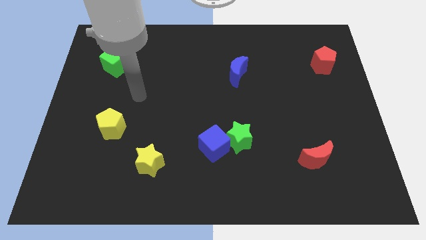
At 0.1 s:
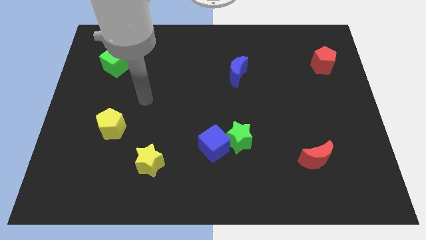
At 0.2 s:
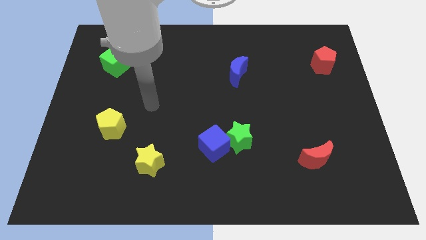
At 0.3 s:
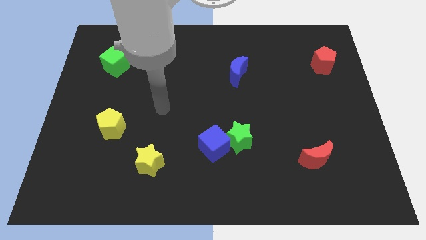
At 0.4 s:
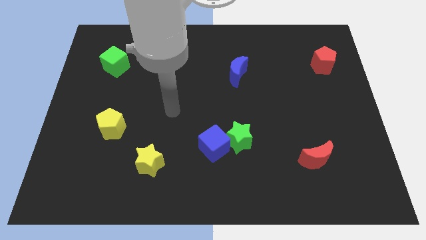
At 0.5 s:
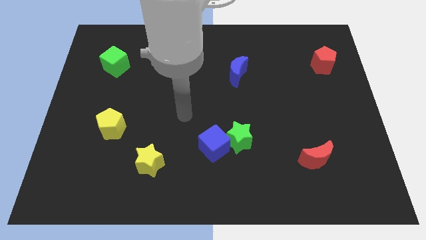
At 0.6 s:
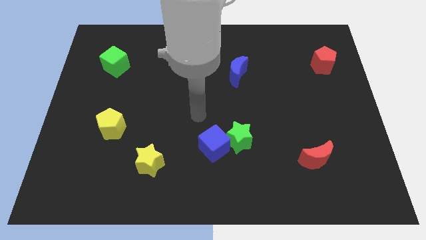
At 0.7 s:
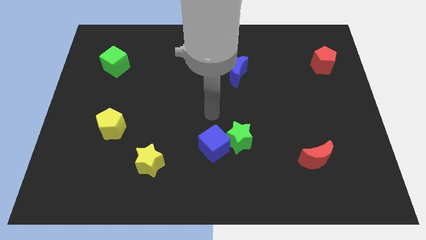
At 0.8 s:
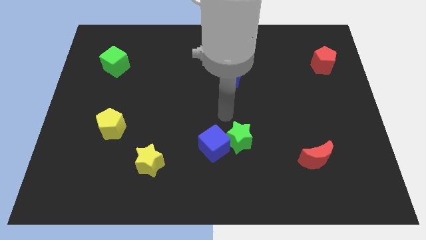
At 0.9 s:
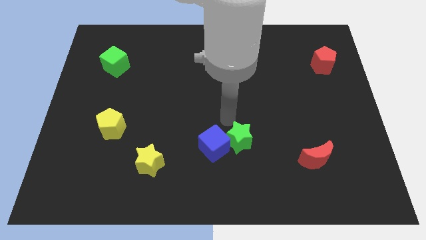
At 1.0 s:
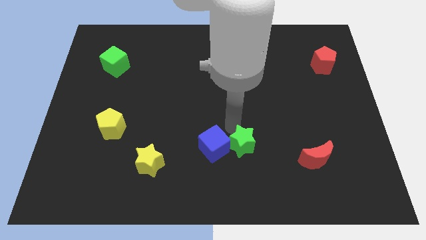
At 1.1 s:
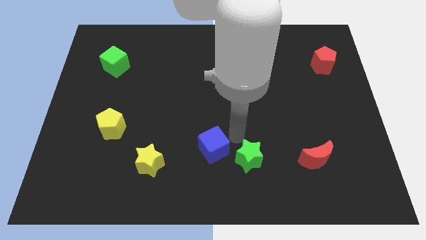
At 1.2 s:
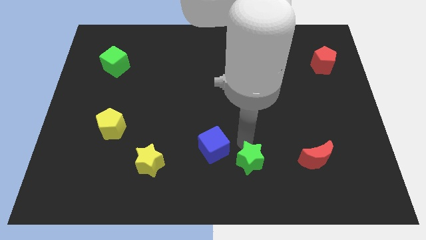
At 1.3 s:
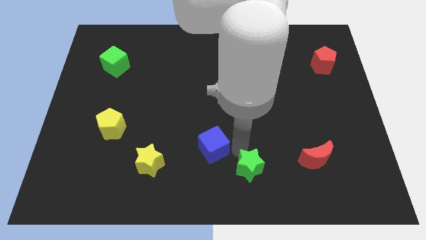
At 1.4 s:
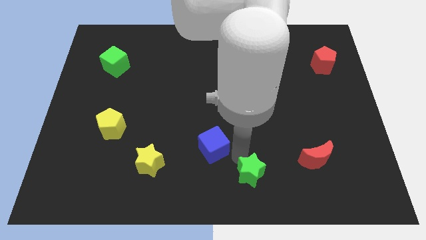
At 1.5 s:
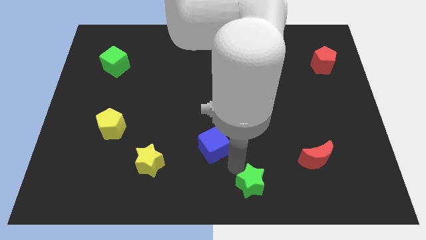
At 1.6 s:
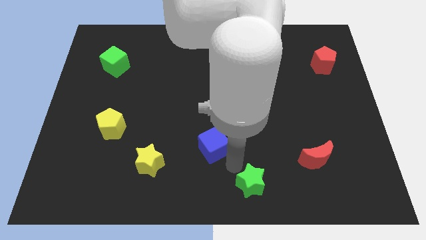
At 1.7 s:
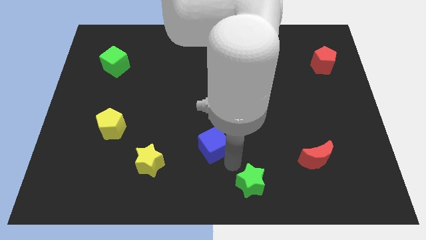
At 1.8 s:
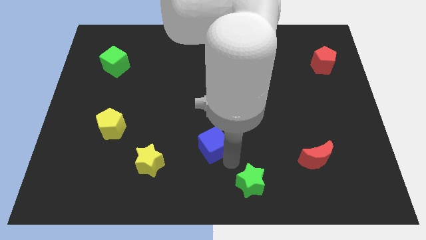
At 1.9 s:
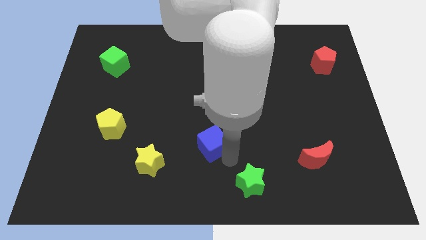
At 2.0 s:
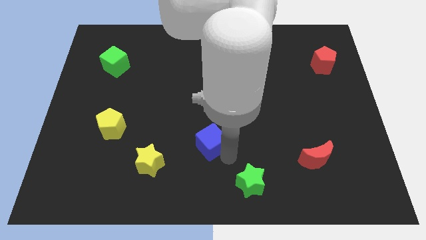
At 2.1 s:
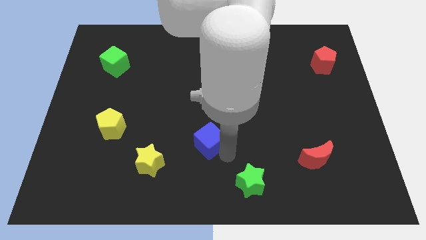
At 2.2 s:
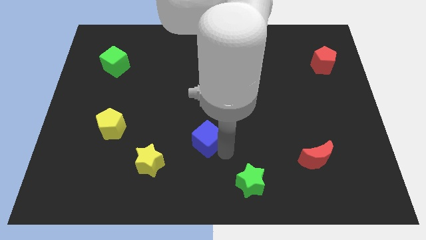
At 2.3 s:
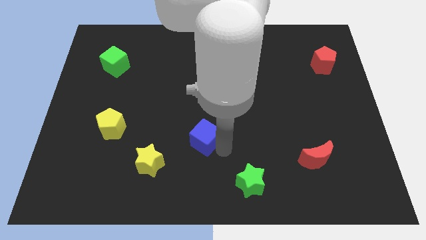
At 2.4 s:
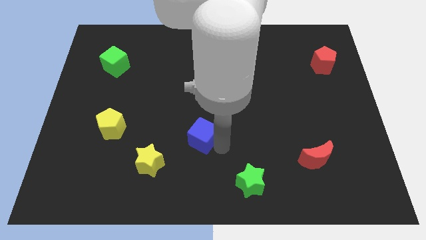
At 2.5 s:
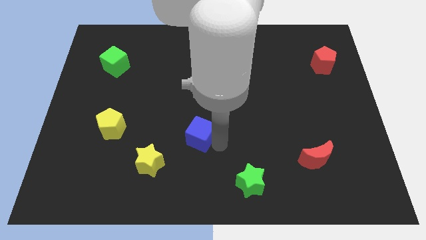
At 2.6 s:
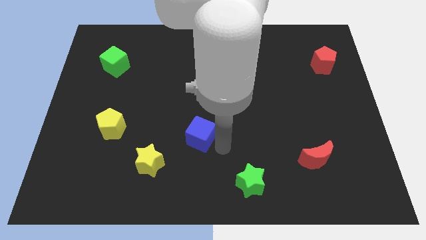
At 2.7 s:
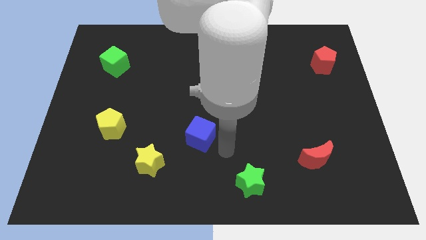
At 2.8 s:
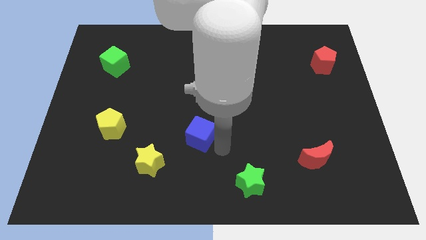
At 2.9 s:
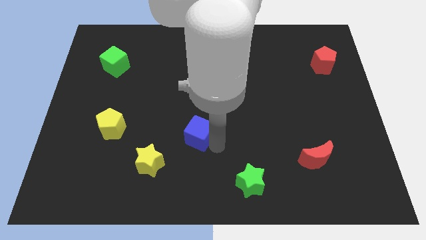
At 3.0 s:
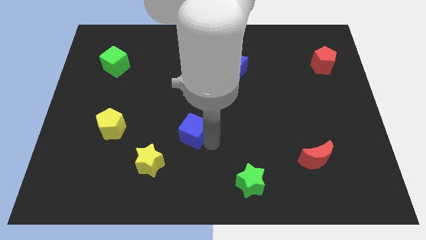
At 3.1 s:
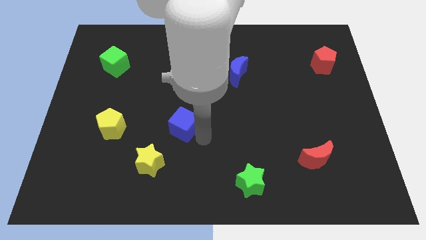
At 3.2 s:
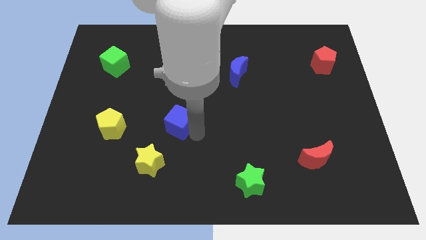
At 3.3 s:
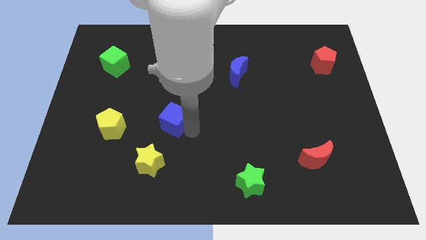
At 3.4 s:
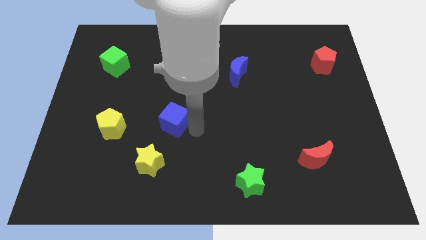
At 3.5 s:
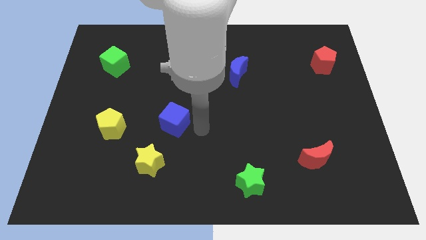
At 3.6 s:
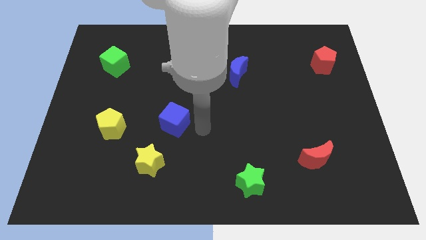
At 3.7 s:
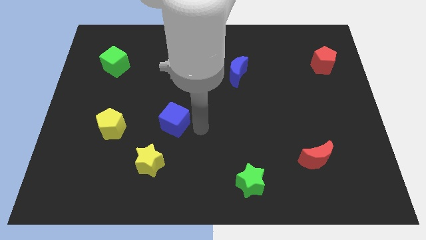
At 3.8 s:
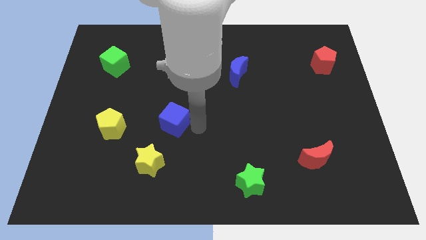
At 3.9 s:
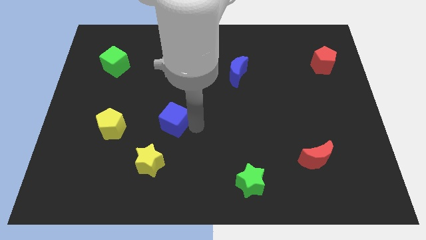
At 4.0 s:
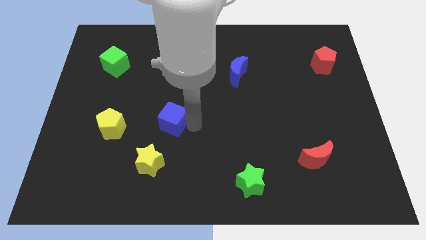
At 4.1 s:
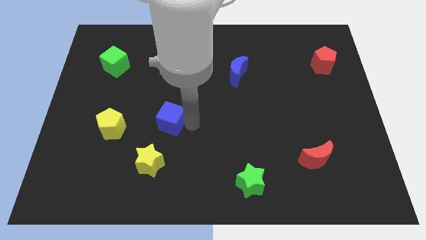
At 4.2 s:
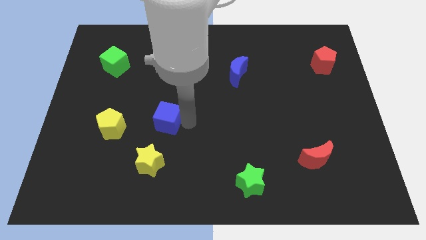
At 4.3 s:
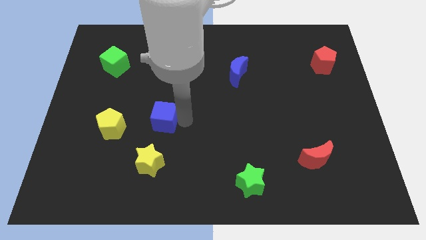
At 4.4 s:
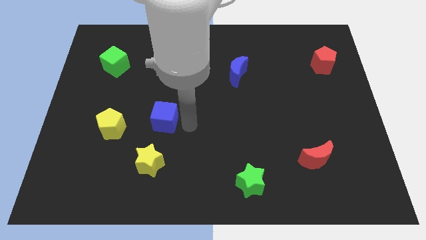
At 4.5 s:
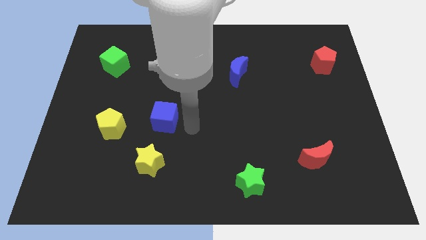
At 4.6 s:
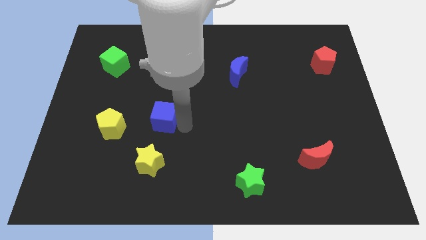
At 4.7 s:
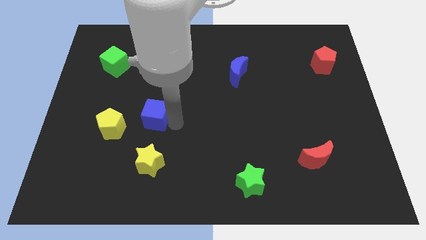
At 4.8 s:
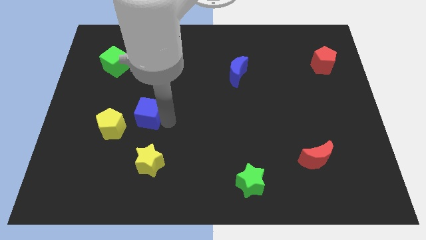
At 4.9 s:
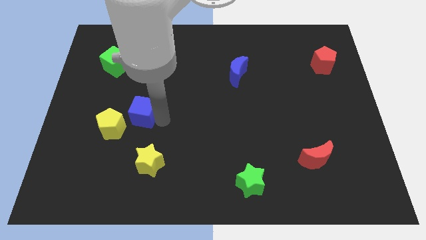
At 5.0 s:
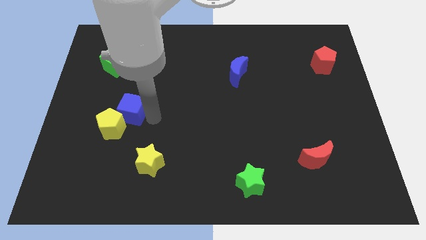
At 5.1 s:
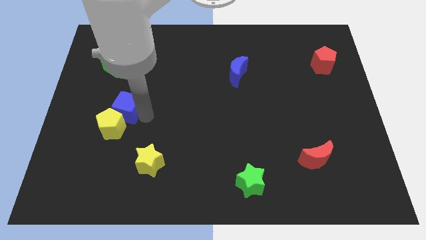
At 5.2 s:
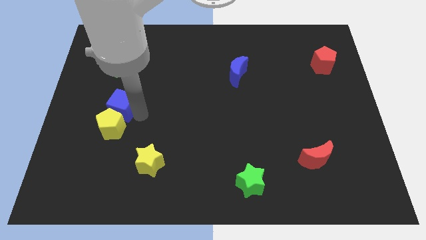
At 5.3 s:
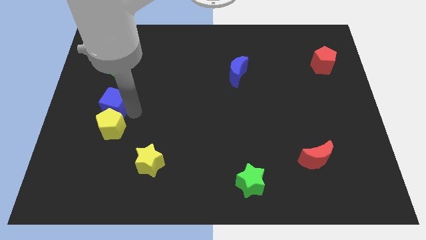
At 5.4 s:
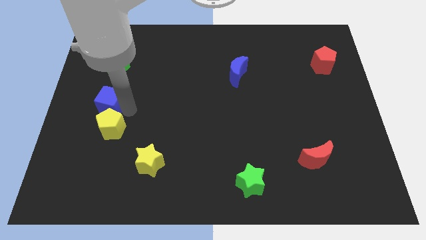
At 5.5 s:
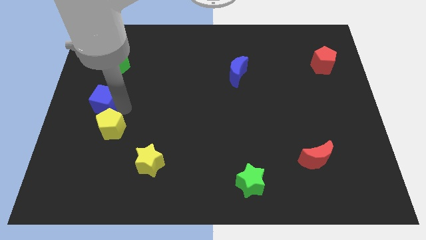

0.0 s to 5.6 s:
put the blue cube to the left side

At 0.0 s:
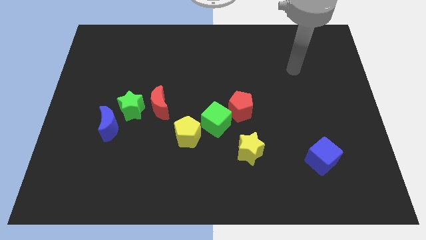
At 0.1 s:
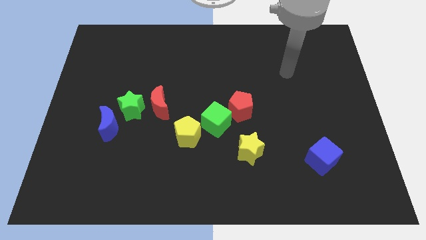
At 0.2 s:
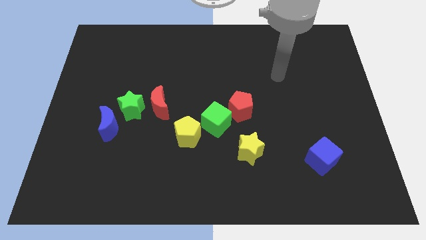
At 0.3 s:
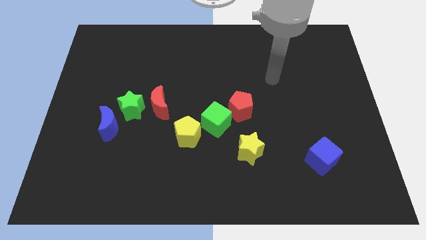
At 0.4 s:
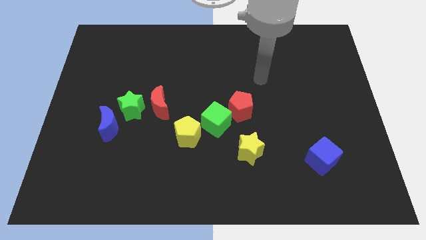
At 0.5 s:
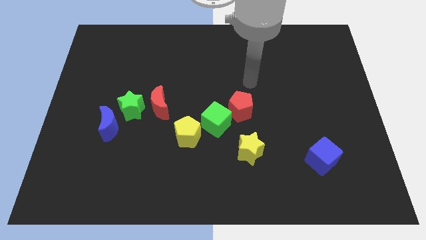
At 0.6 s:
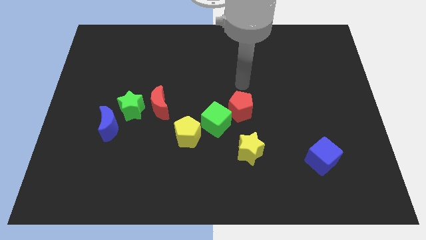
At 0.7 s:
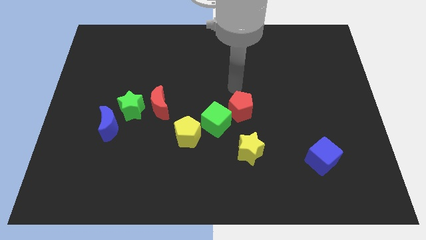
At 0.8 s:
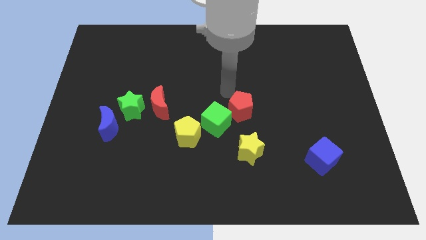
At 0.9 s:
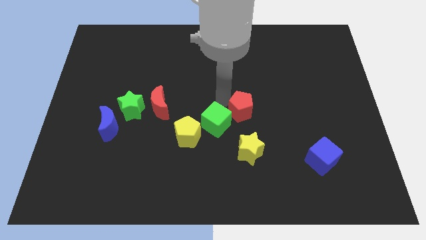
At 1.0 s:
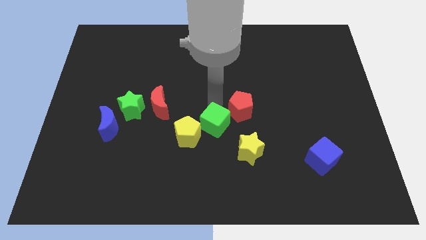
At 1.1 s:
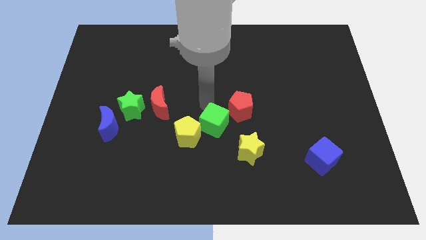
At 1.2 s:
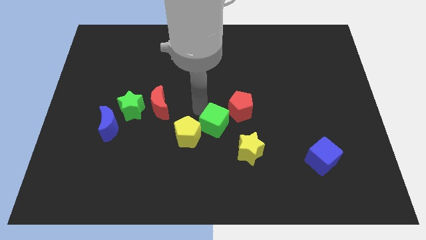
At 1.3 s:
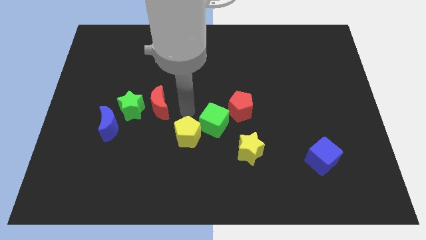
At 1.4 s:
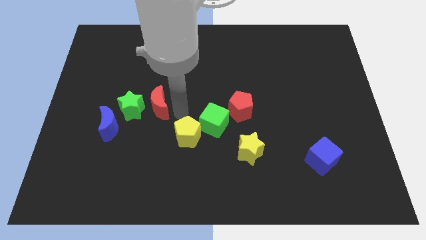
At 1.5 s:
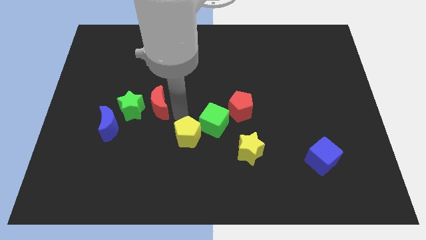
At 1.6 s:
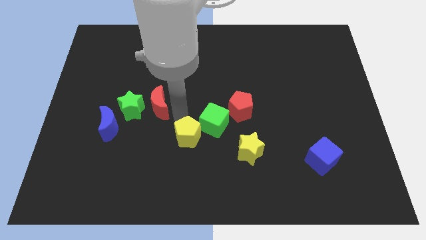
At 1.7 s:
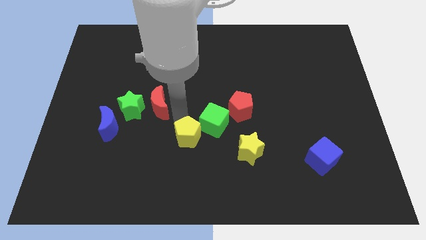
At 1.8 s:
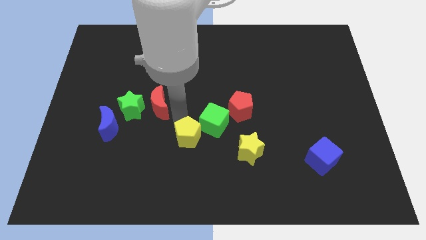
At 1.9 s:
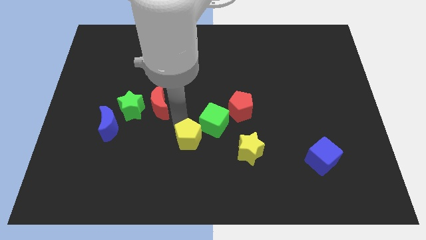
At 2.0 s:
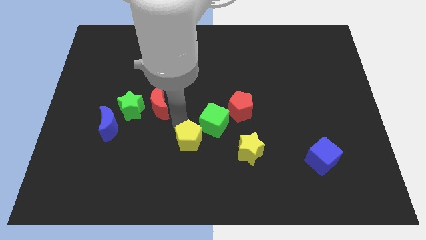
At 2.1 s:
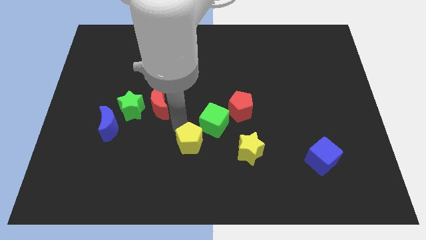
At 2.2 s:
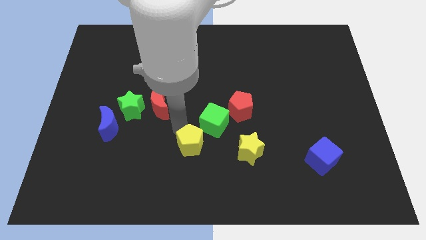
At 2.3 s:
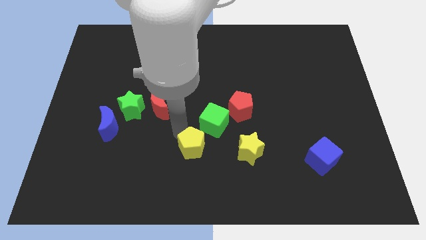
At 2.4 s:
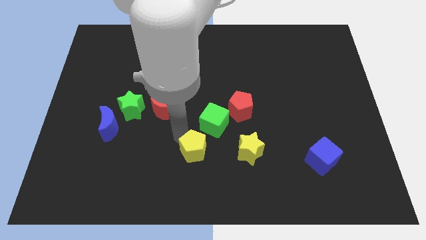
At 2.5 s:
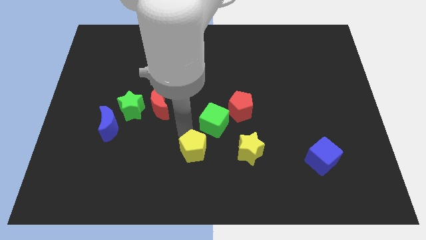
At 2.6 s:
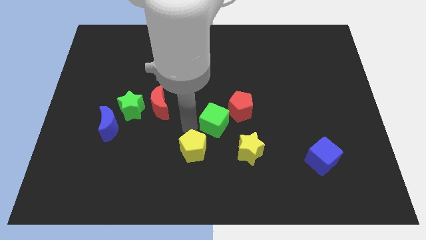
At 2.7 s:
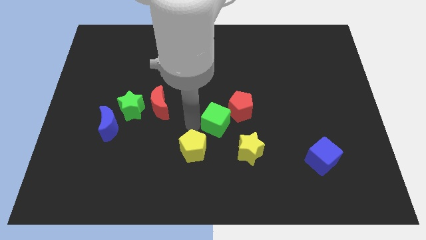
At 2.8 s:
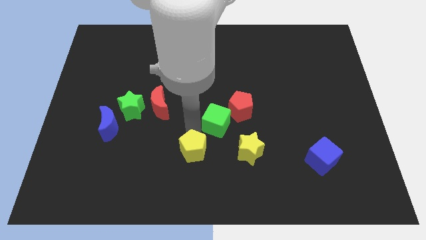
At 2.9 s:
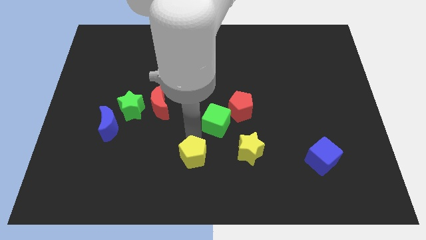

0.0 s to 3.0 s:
push the yellow pentagon to the bottom side
